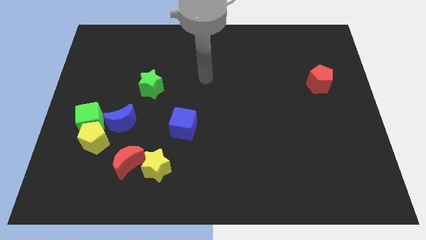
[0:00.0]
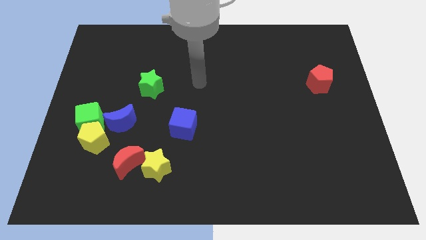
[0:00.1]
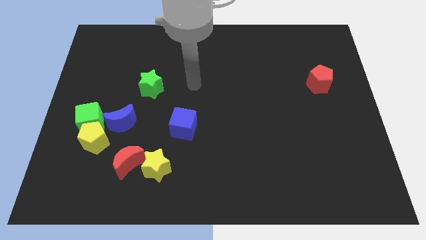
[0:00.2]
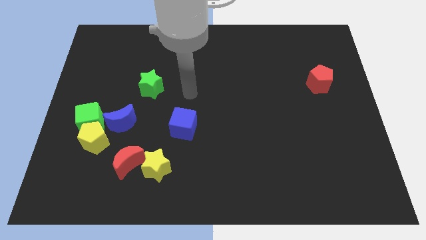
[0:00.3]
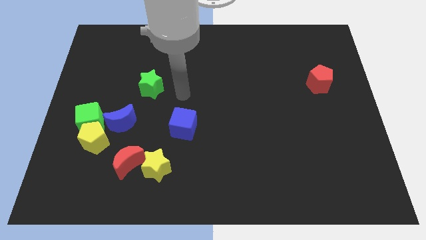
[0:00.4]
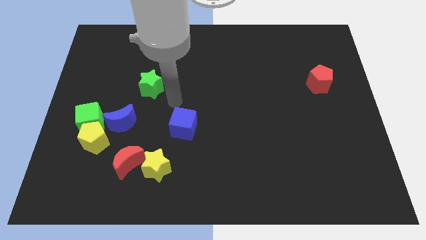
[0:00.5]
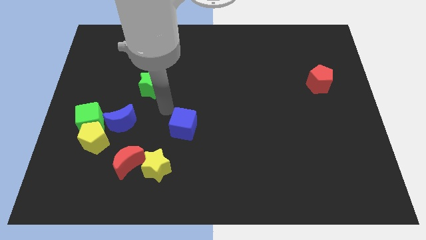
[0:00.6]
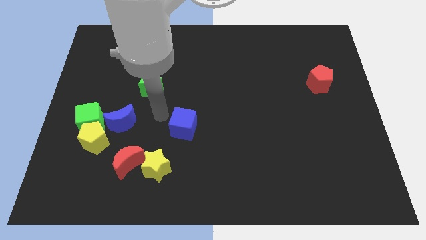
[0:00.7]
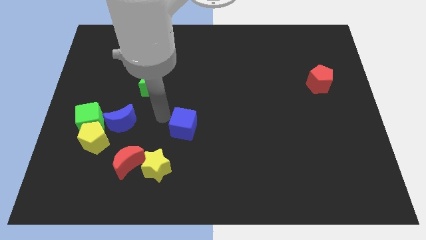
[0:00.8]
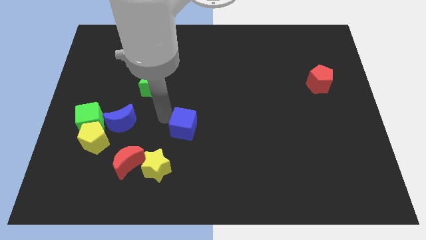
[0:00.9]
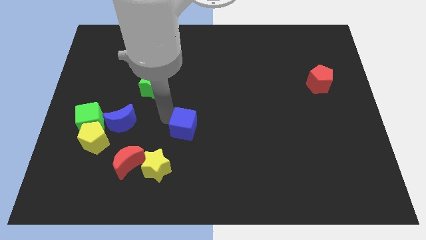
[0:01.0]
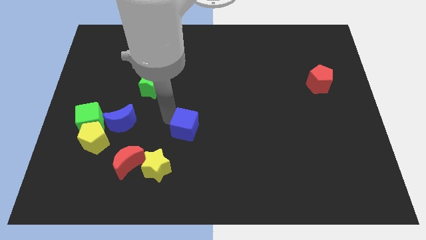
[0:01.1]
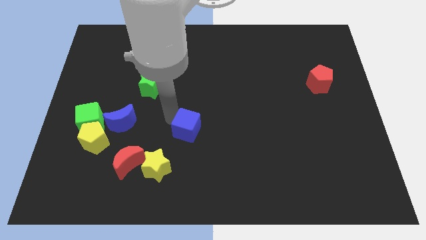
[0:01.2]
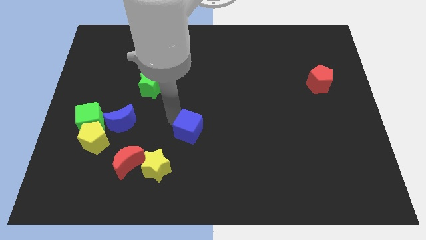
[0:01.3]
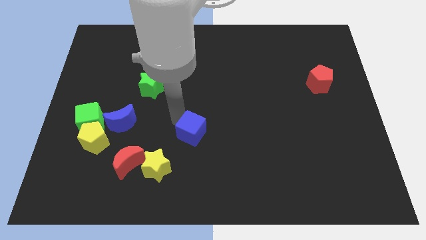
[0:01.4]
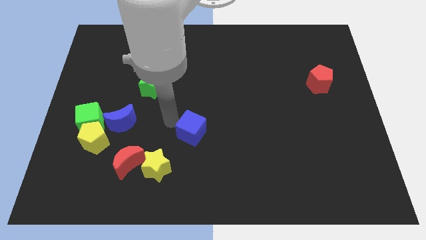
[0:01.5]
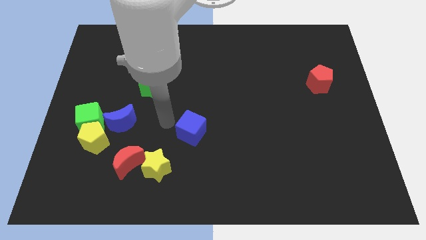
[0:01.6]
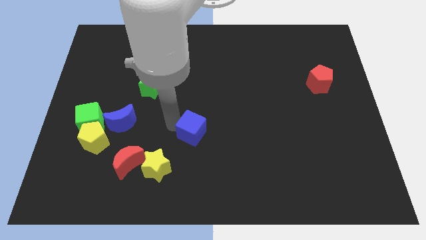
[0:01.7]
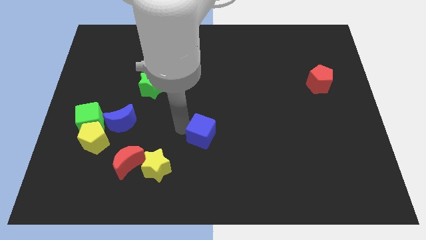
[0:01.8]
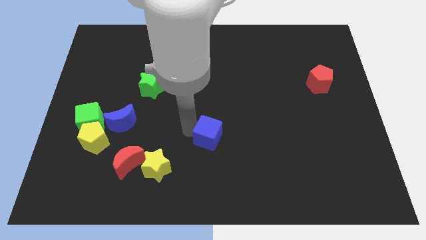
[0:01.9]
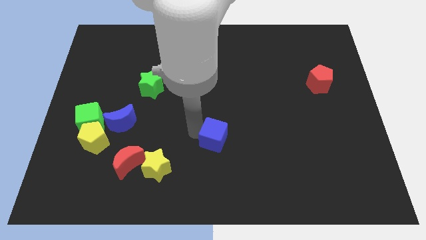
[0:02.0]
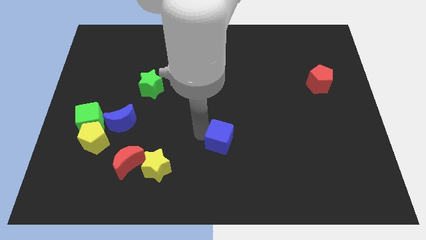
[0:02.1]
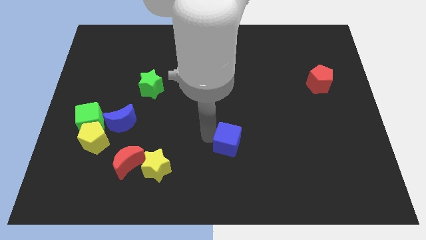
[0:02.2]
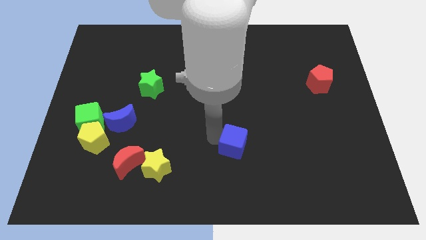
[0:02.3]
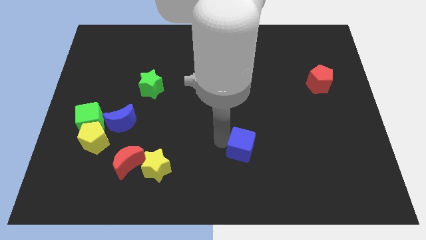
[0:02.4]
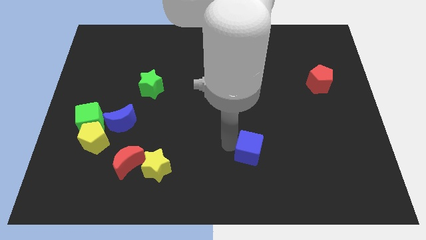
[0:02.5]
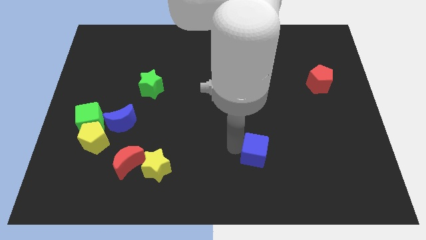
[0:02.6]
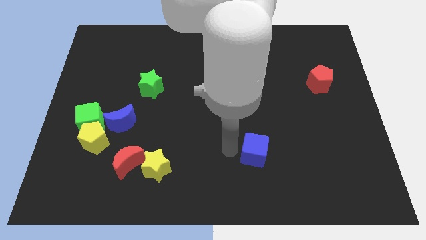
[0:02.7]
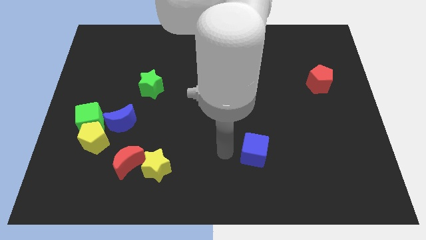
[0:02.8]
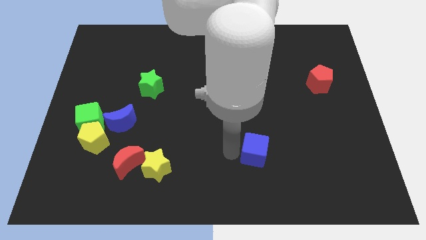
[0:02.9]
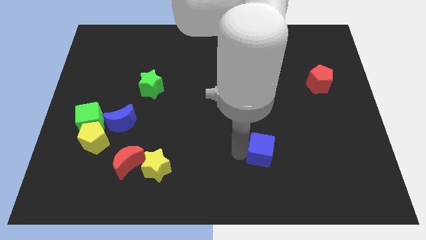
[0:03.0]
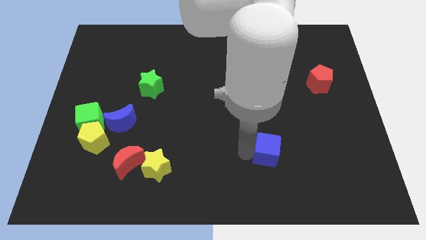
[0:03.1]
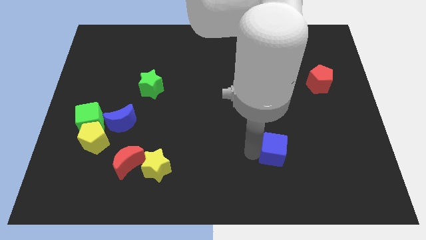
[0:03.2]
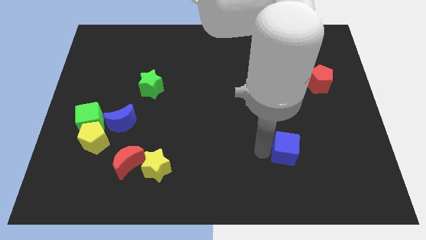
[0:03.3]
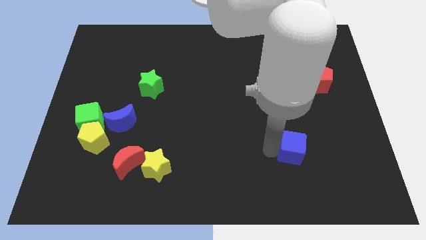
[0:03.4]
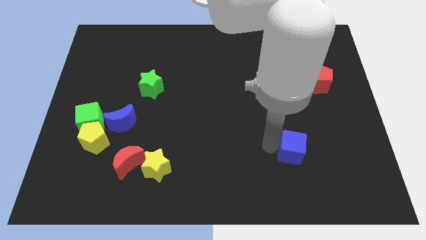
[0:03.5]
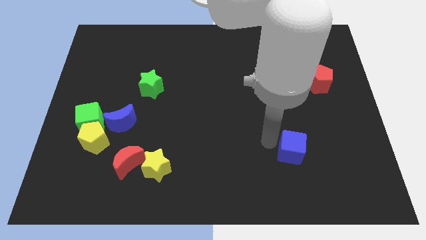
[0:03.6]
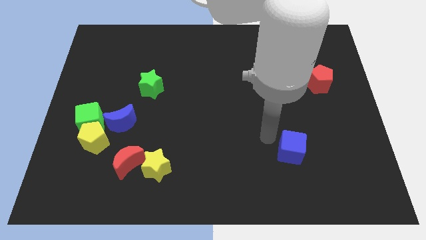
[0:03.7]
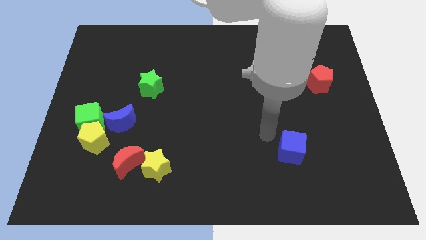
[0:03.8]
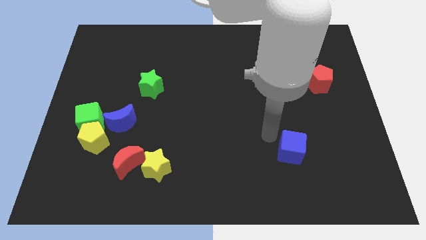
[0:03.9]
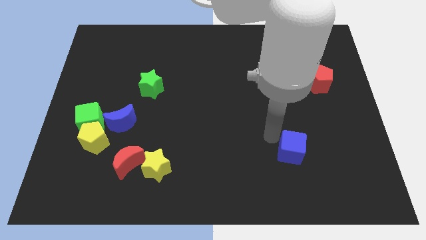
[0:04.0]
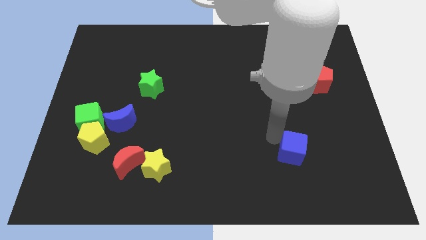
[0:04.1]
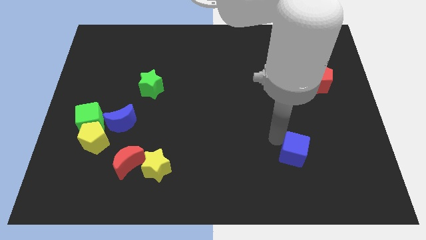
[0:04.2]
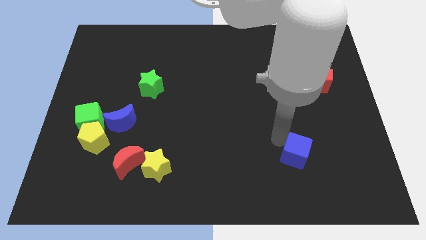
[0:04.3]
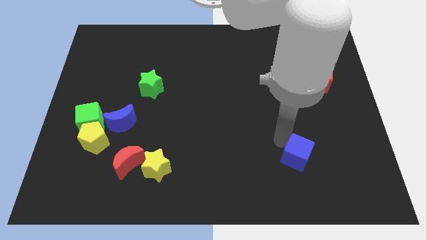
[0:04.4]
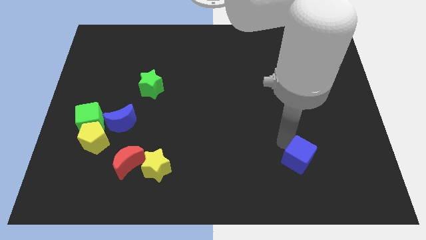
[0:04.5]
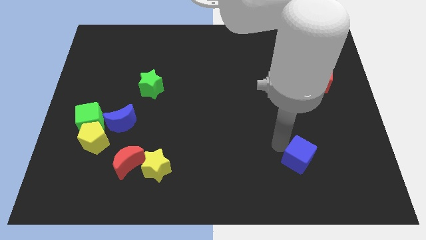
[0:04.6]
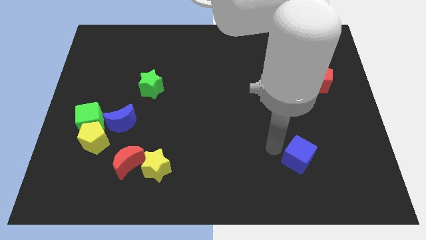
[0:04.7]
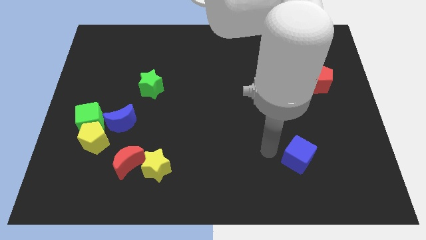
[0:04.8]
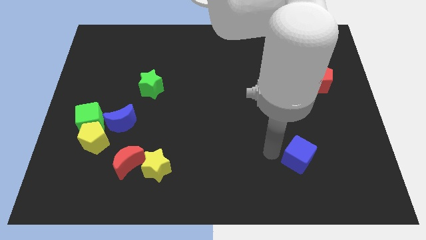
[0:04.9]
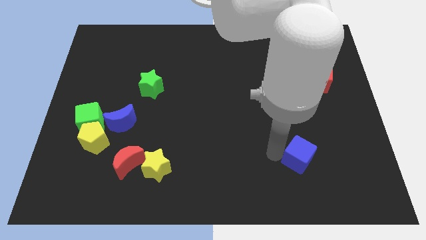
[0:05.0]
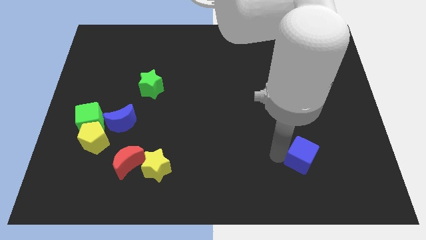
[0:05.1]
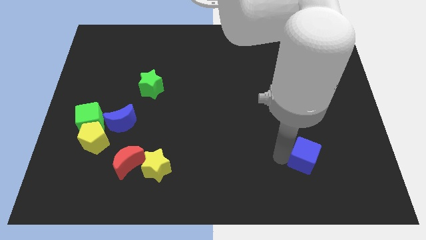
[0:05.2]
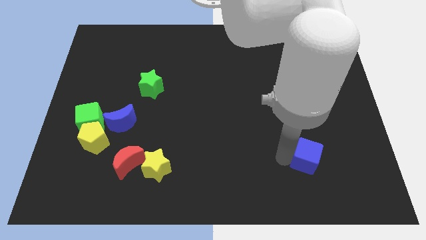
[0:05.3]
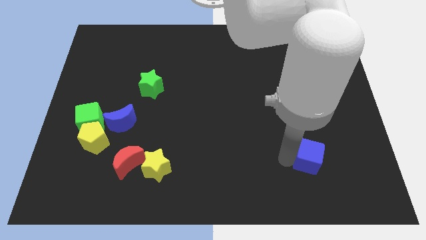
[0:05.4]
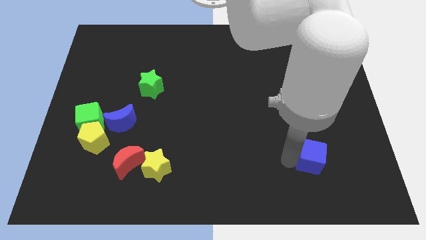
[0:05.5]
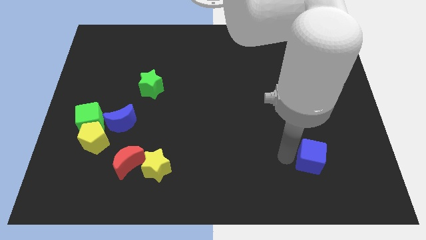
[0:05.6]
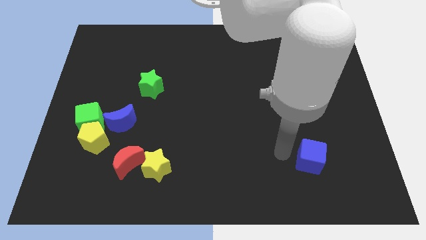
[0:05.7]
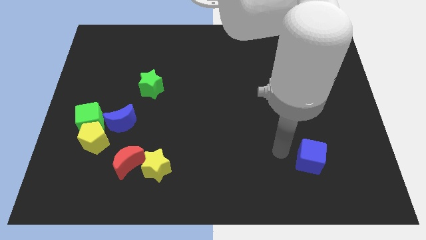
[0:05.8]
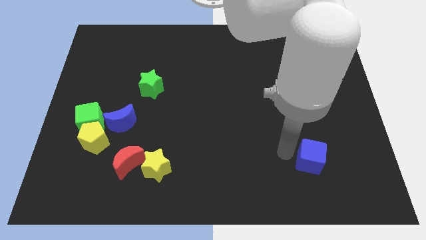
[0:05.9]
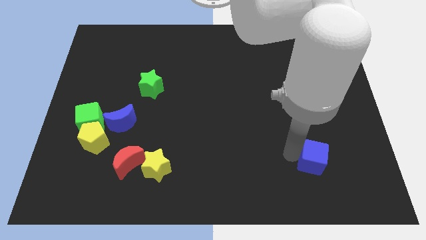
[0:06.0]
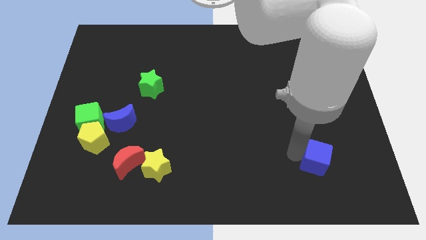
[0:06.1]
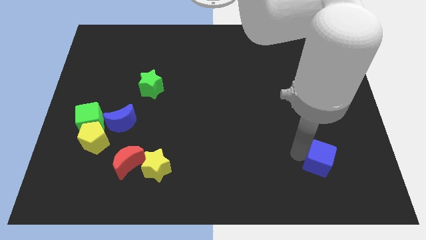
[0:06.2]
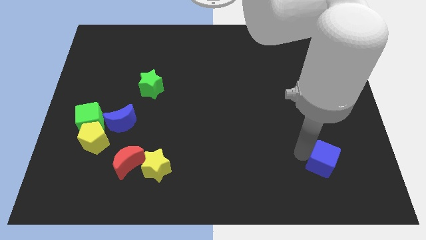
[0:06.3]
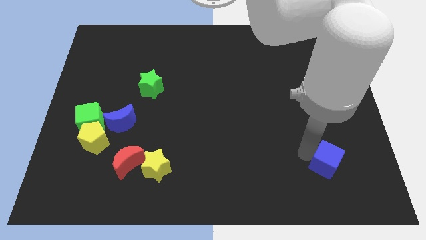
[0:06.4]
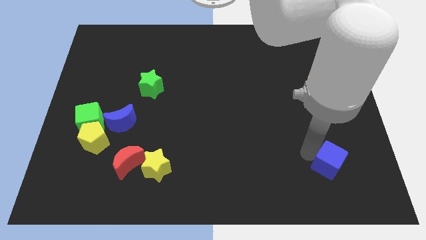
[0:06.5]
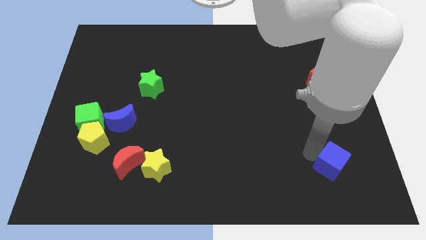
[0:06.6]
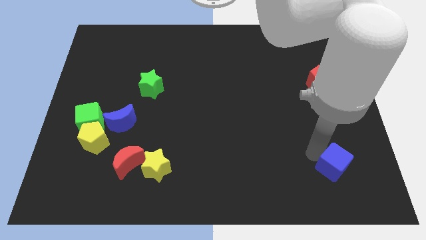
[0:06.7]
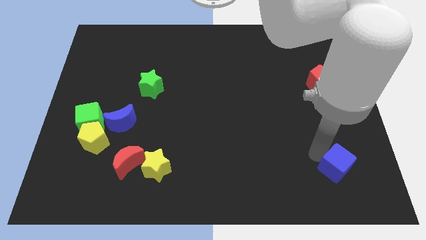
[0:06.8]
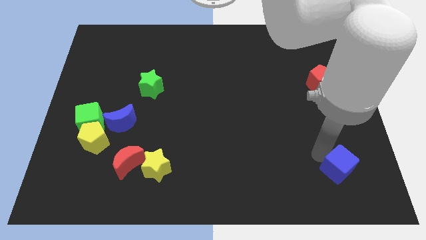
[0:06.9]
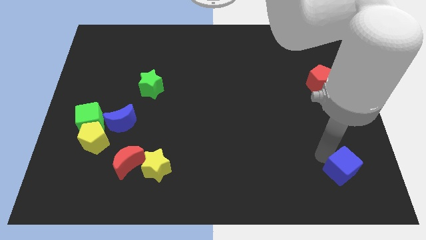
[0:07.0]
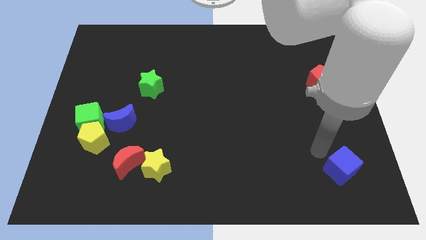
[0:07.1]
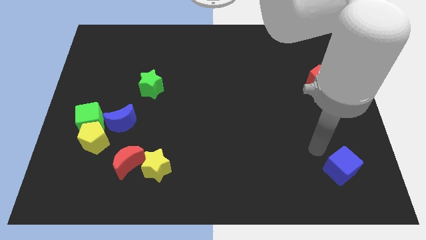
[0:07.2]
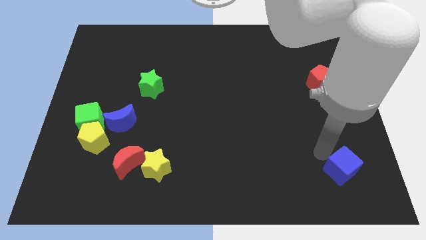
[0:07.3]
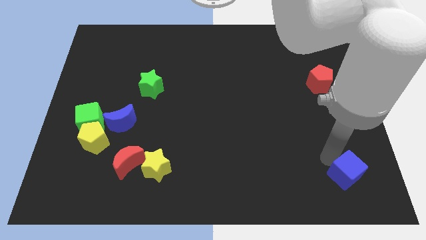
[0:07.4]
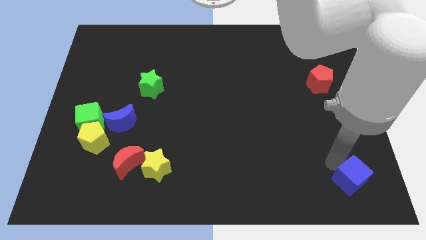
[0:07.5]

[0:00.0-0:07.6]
put the blue cube to the lower right corner
